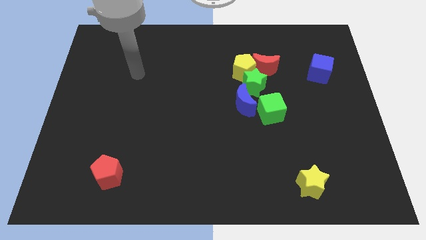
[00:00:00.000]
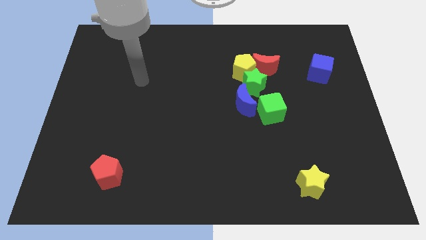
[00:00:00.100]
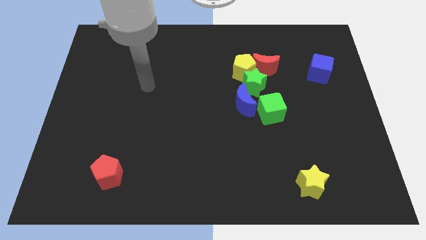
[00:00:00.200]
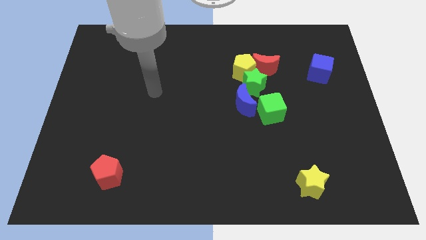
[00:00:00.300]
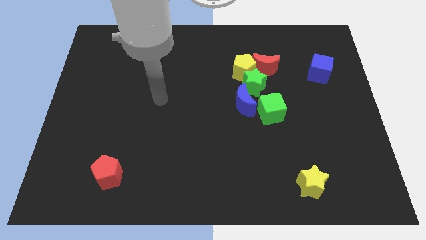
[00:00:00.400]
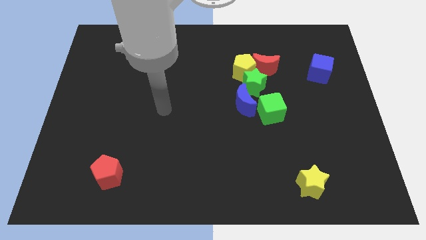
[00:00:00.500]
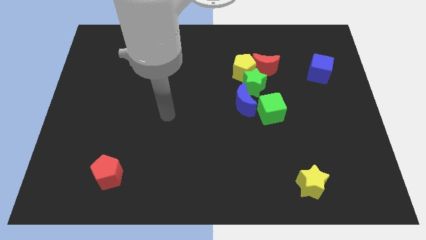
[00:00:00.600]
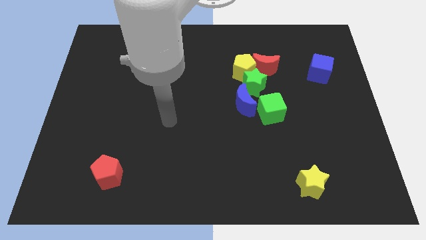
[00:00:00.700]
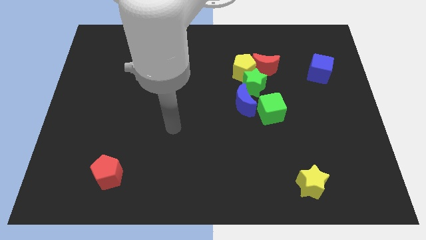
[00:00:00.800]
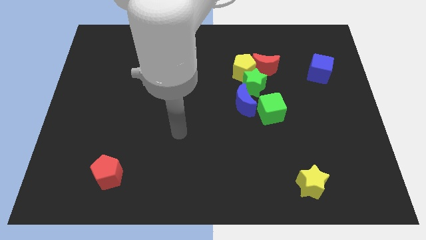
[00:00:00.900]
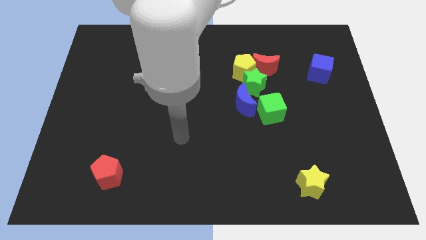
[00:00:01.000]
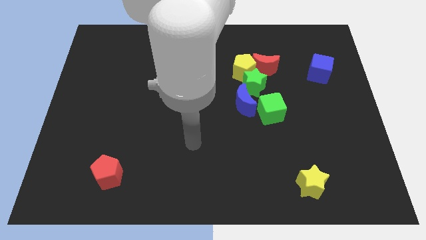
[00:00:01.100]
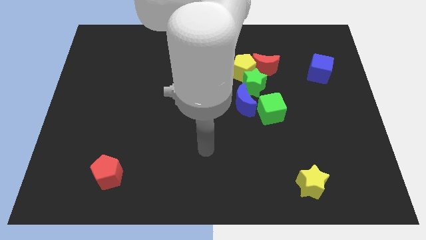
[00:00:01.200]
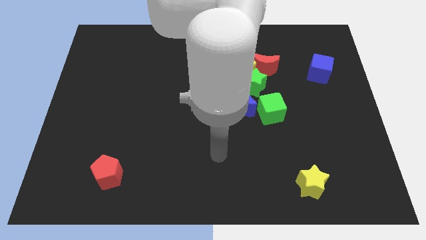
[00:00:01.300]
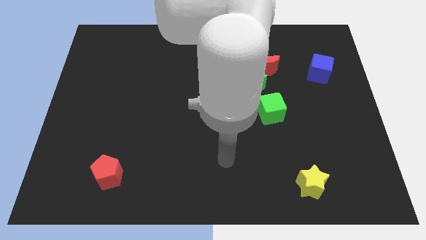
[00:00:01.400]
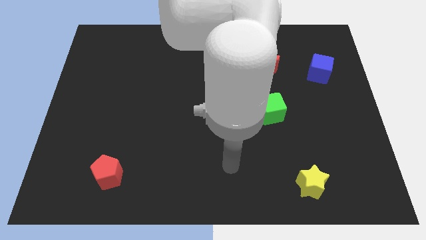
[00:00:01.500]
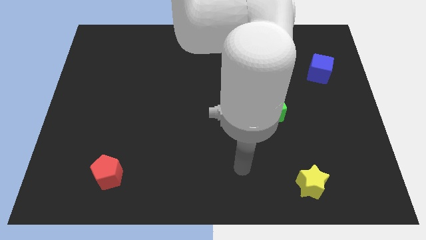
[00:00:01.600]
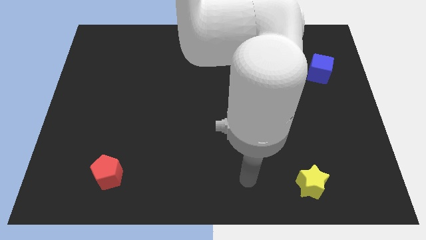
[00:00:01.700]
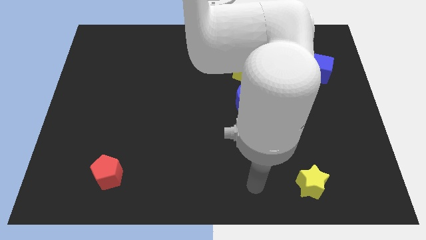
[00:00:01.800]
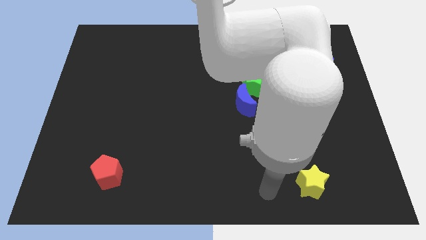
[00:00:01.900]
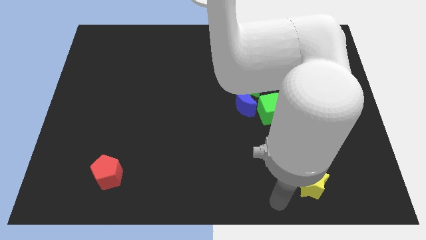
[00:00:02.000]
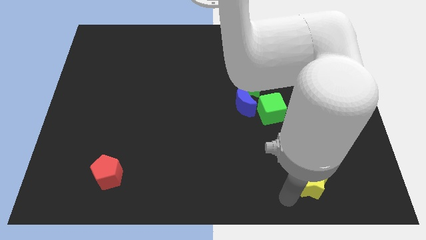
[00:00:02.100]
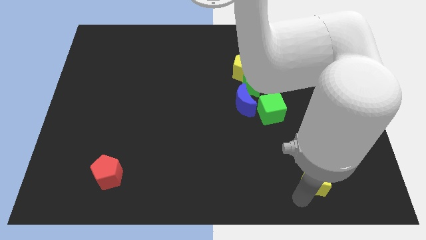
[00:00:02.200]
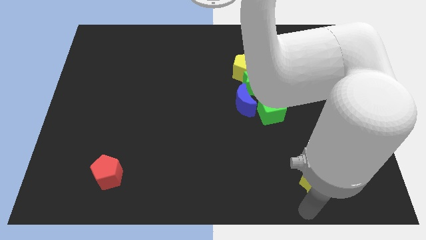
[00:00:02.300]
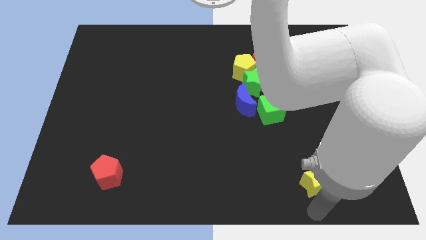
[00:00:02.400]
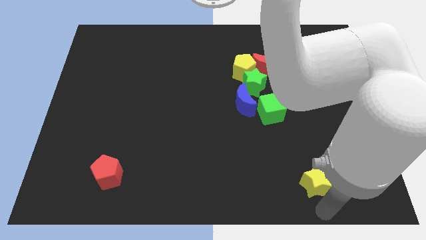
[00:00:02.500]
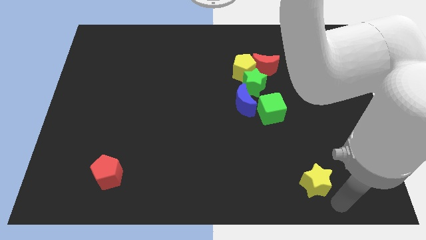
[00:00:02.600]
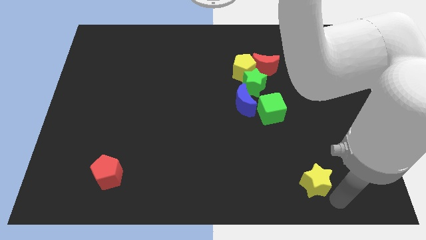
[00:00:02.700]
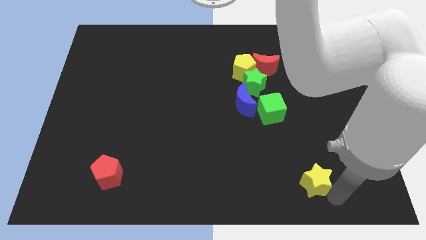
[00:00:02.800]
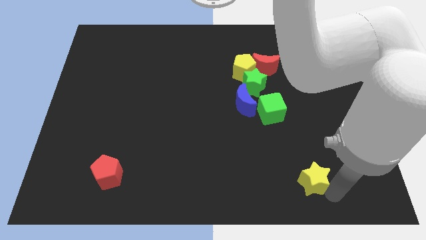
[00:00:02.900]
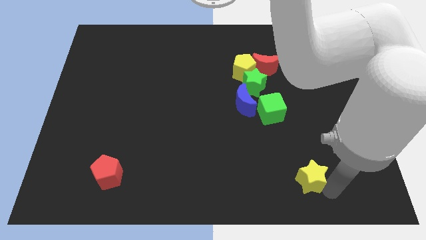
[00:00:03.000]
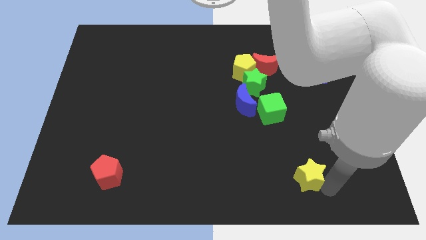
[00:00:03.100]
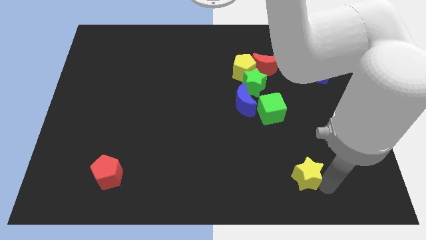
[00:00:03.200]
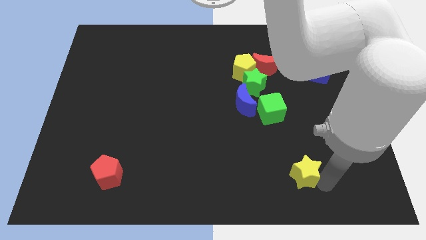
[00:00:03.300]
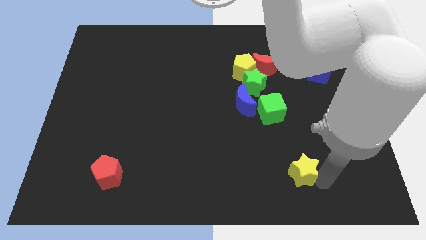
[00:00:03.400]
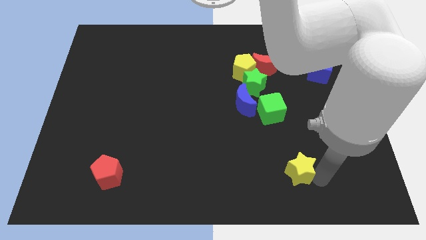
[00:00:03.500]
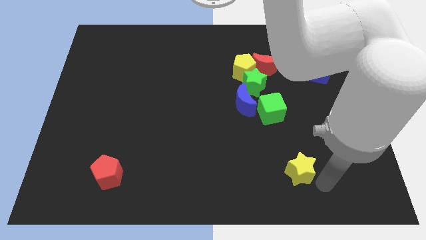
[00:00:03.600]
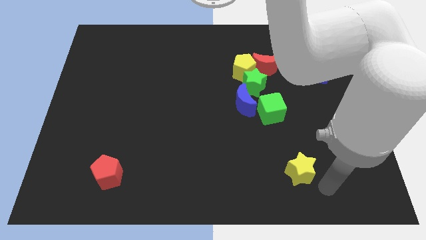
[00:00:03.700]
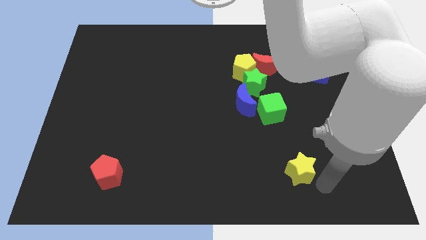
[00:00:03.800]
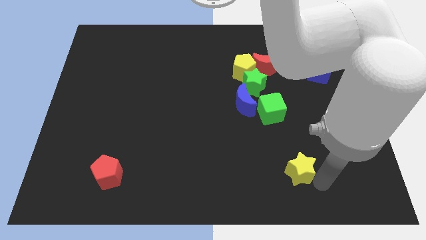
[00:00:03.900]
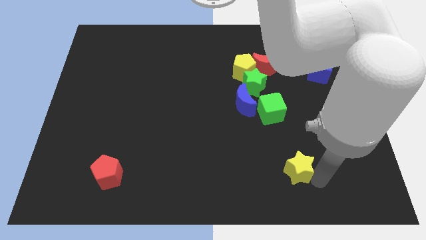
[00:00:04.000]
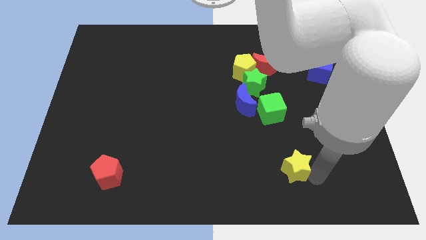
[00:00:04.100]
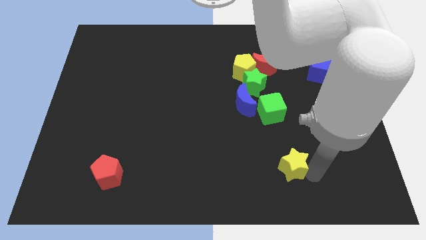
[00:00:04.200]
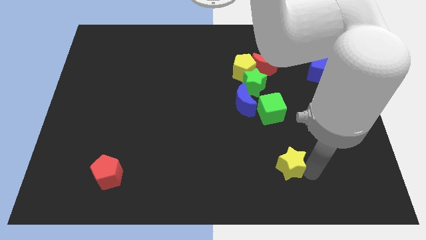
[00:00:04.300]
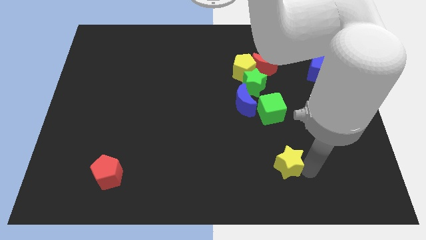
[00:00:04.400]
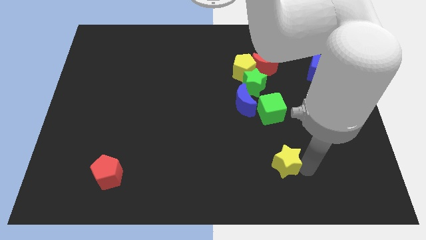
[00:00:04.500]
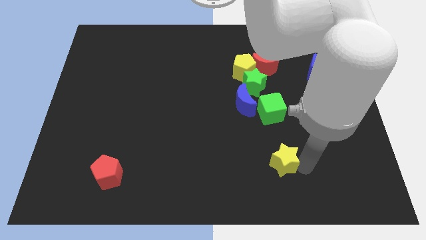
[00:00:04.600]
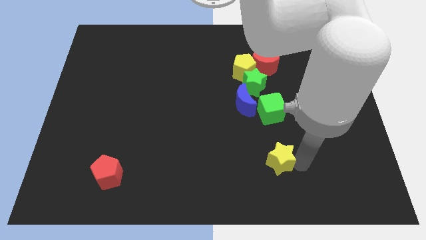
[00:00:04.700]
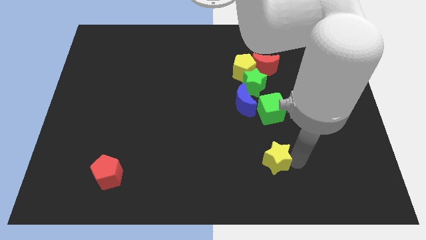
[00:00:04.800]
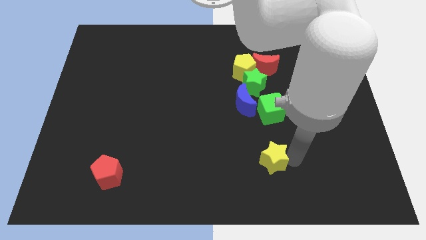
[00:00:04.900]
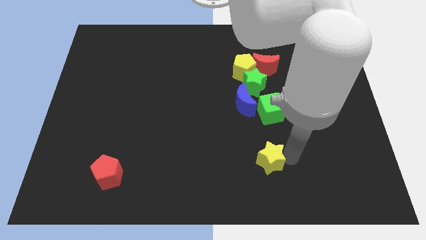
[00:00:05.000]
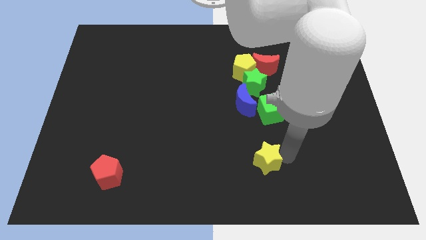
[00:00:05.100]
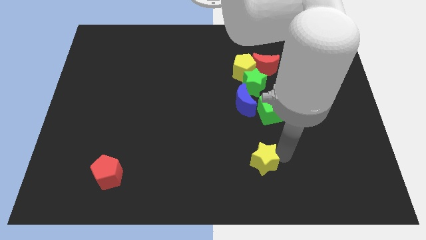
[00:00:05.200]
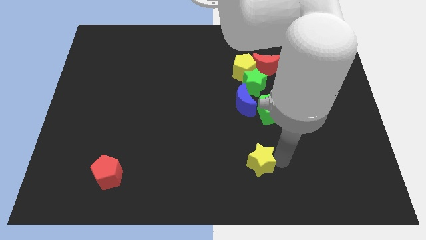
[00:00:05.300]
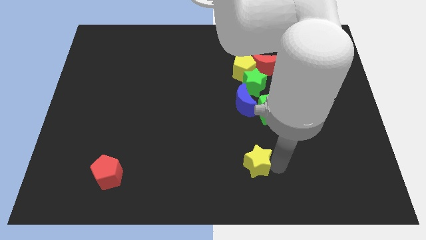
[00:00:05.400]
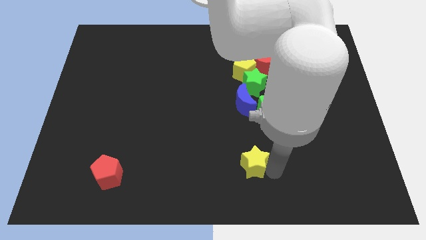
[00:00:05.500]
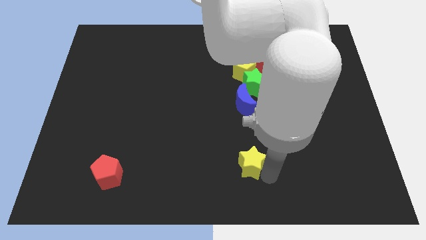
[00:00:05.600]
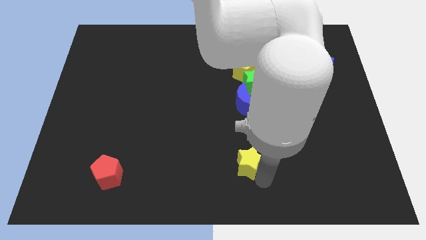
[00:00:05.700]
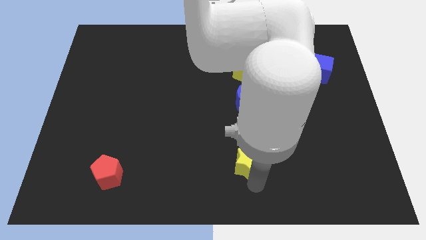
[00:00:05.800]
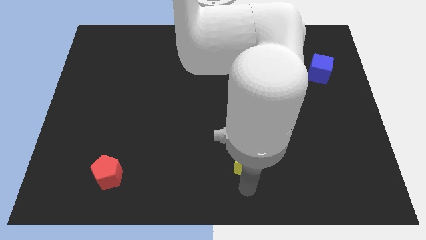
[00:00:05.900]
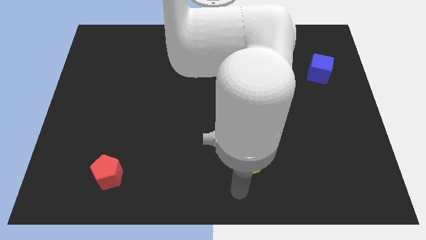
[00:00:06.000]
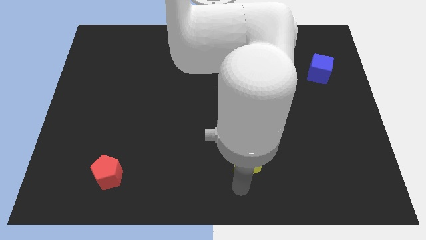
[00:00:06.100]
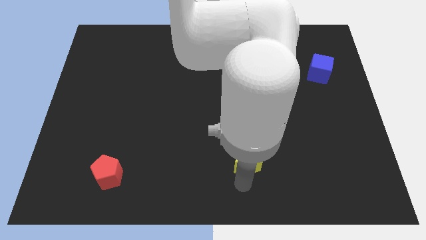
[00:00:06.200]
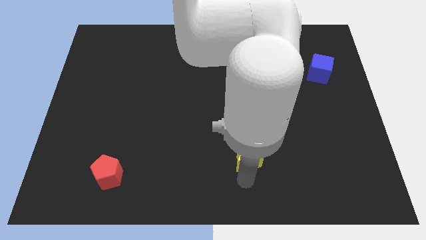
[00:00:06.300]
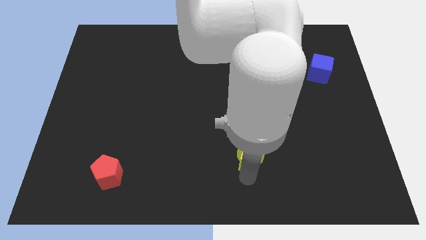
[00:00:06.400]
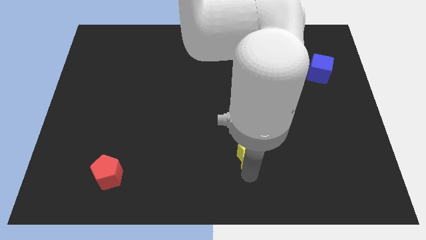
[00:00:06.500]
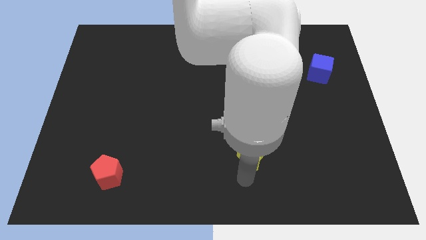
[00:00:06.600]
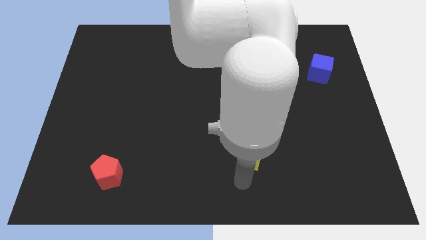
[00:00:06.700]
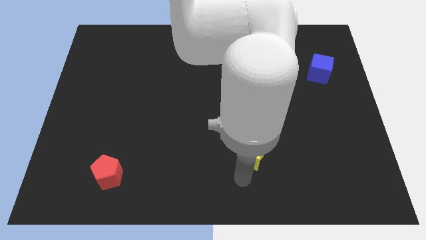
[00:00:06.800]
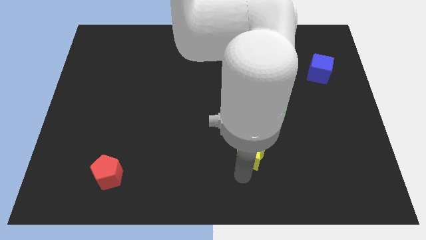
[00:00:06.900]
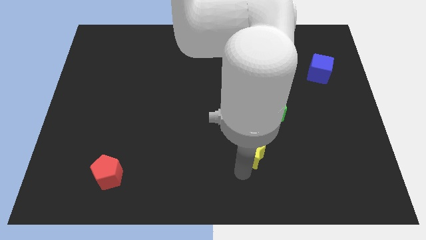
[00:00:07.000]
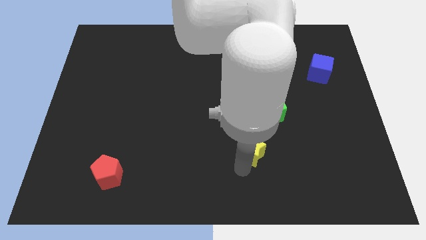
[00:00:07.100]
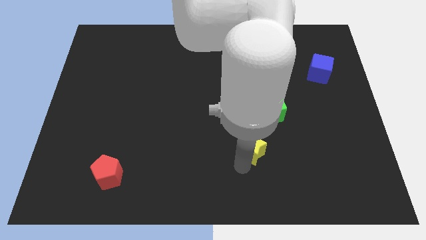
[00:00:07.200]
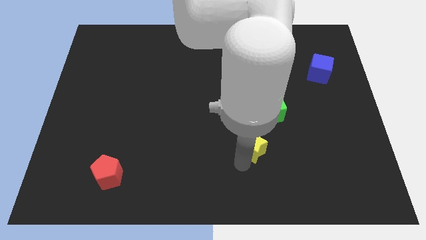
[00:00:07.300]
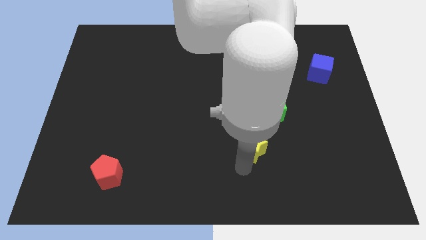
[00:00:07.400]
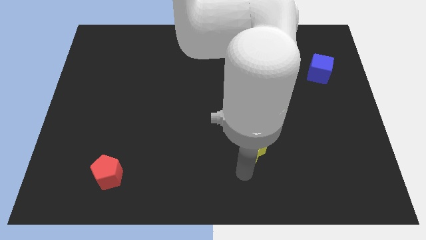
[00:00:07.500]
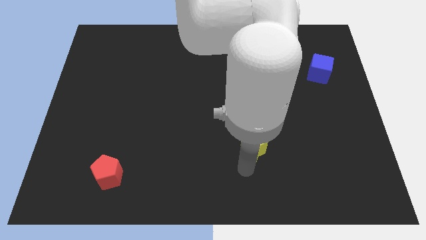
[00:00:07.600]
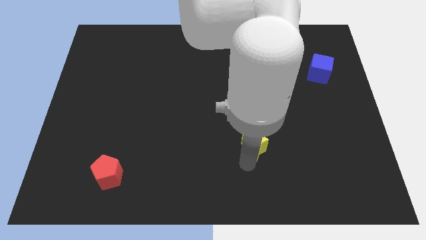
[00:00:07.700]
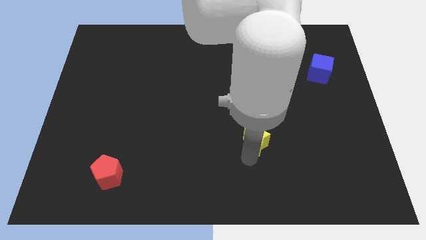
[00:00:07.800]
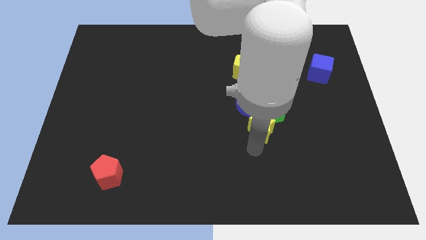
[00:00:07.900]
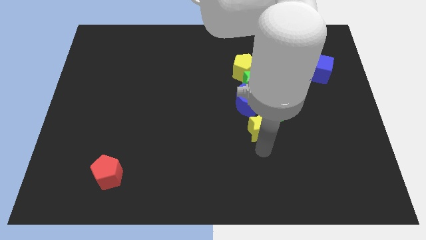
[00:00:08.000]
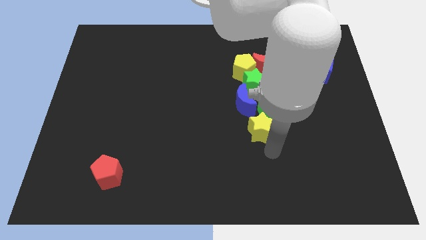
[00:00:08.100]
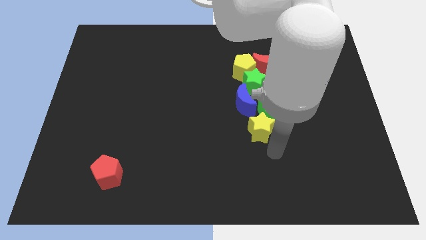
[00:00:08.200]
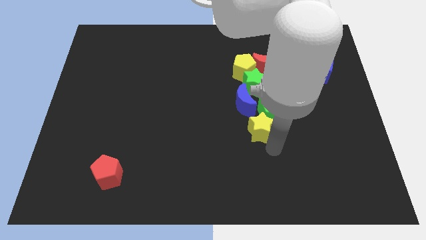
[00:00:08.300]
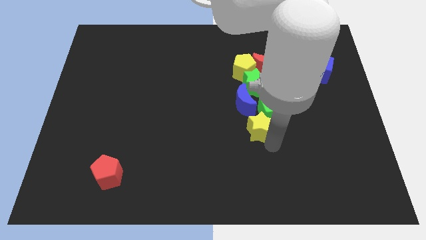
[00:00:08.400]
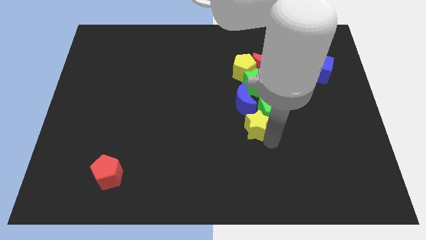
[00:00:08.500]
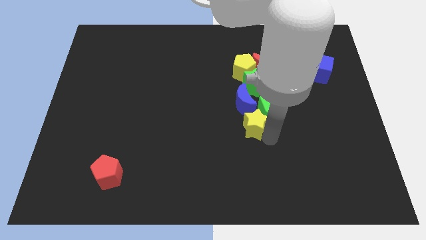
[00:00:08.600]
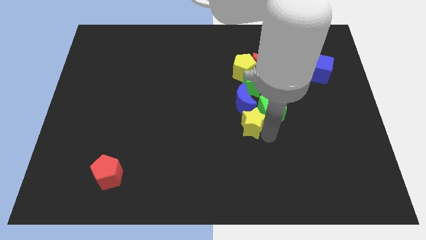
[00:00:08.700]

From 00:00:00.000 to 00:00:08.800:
push the yellow star towards the blue moon
